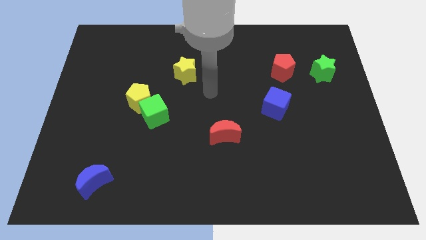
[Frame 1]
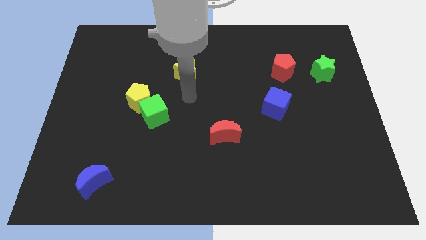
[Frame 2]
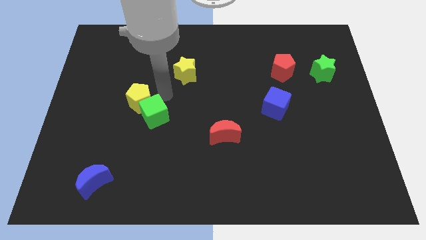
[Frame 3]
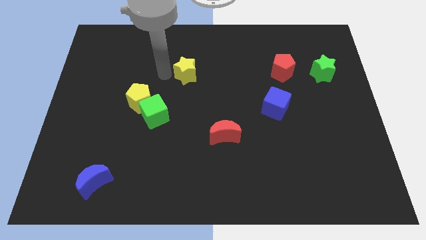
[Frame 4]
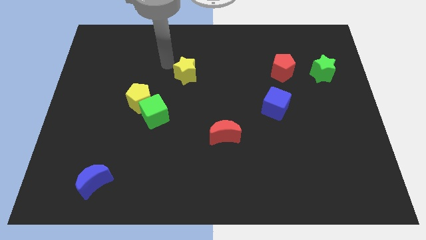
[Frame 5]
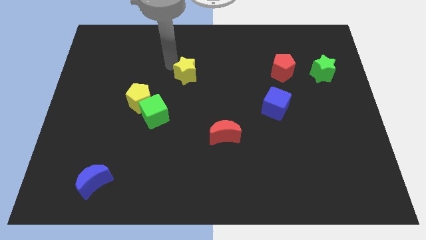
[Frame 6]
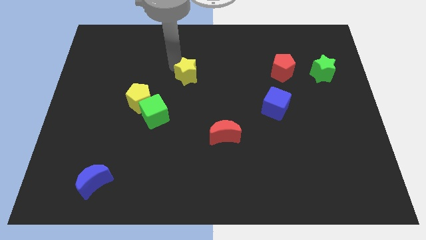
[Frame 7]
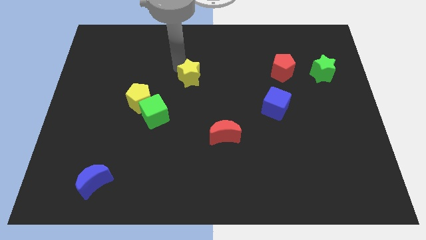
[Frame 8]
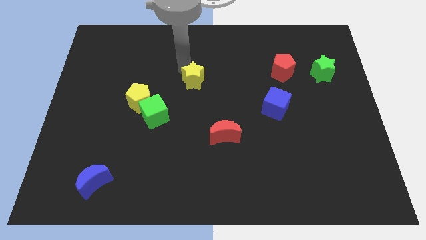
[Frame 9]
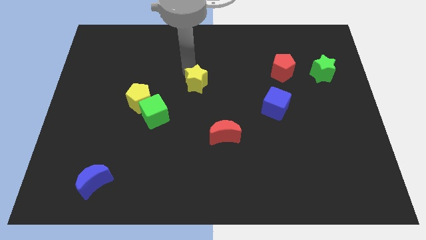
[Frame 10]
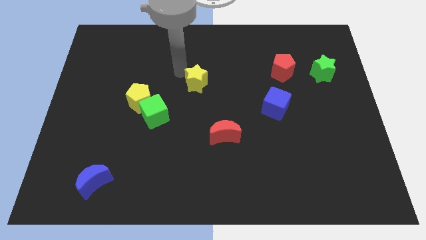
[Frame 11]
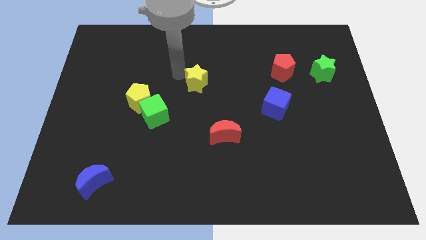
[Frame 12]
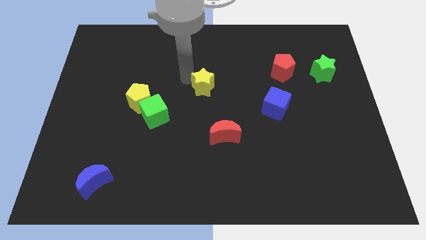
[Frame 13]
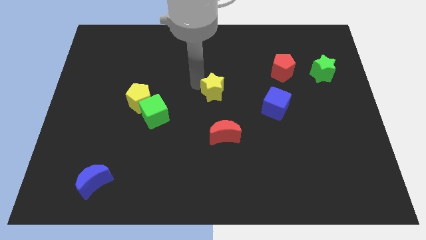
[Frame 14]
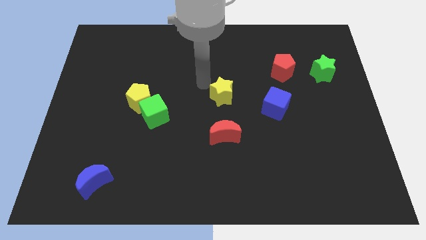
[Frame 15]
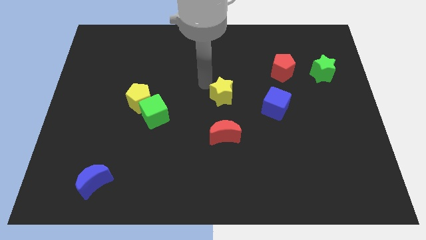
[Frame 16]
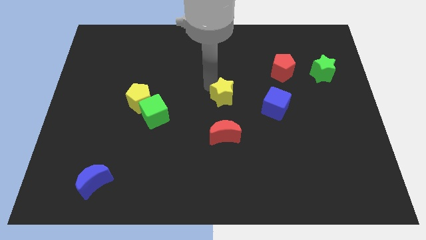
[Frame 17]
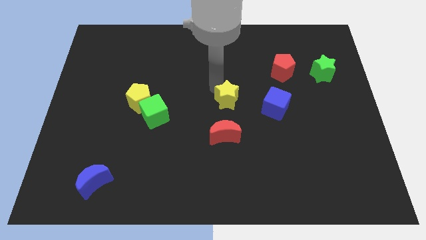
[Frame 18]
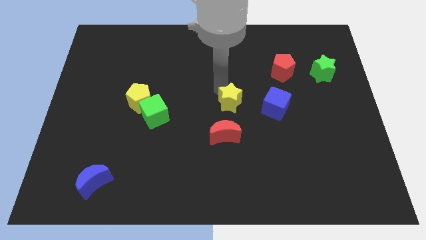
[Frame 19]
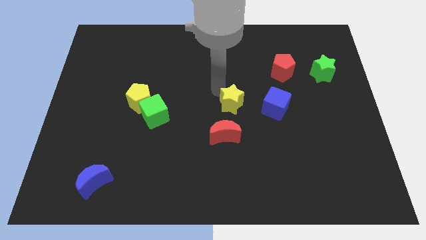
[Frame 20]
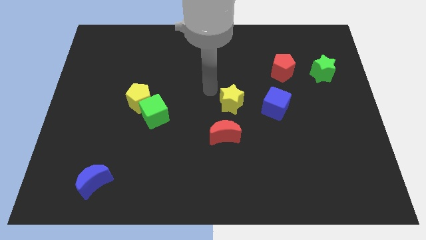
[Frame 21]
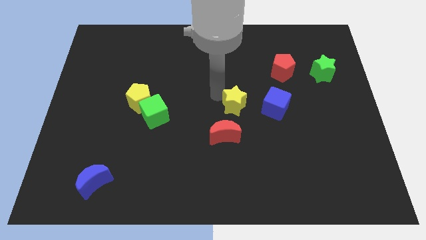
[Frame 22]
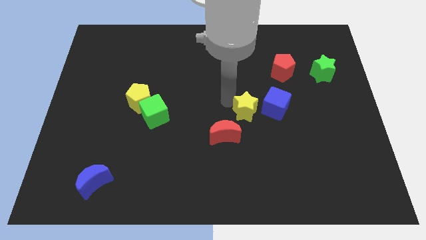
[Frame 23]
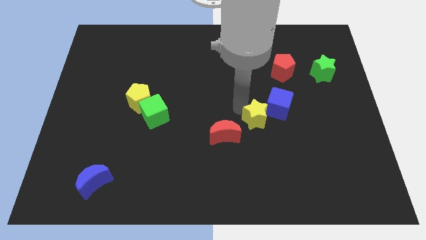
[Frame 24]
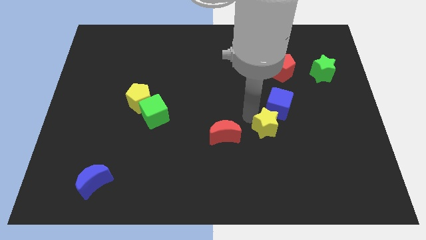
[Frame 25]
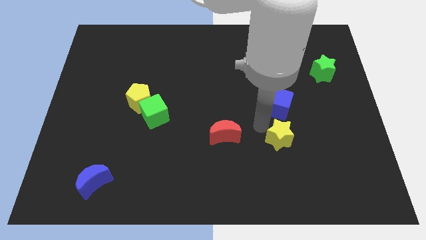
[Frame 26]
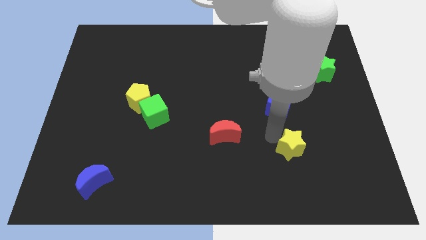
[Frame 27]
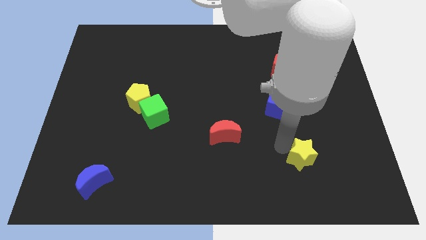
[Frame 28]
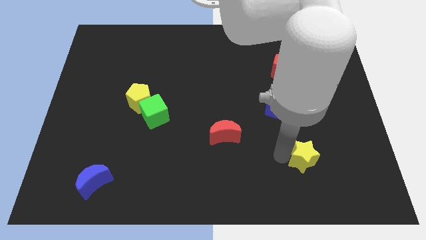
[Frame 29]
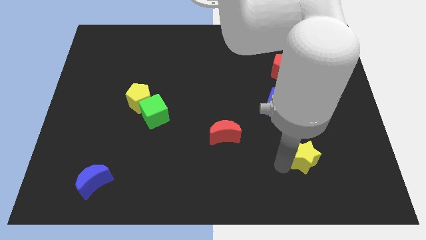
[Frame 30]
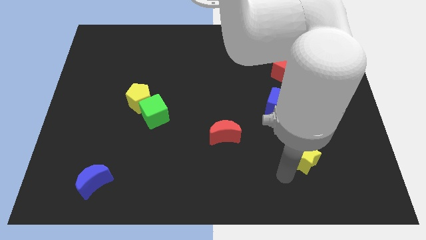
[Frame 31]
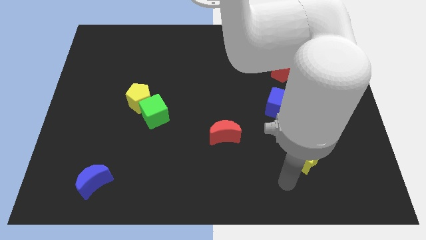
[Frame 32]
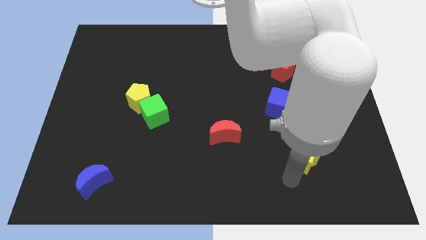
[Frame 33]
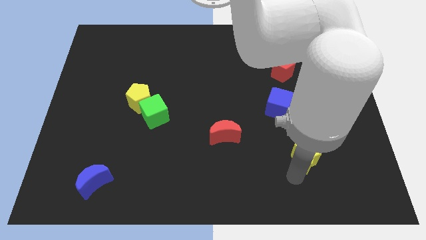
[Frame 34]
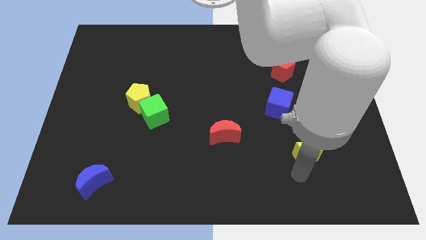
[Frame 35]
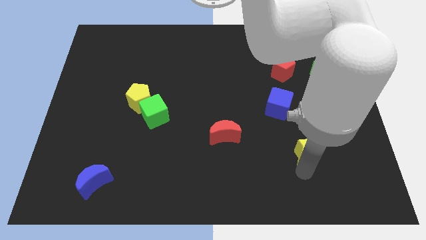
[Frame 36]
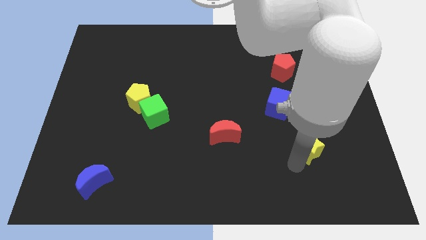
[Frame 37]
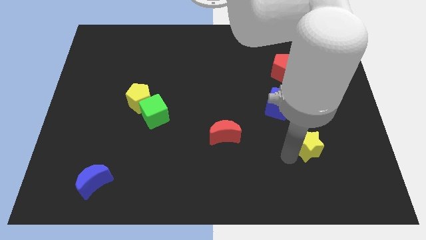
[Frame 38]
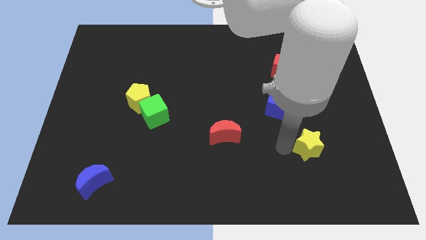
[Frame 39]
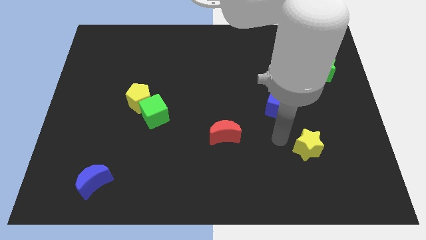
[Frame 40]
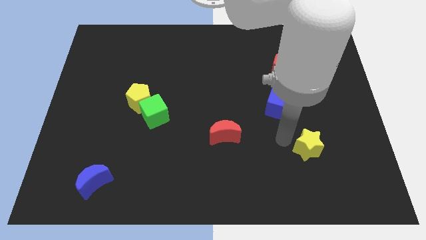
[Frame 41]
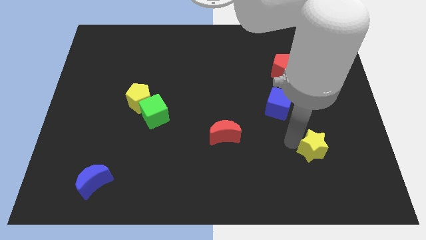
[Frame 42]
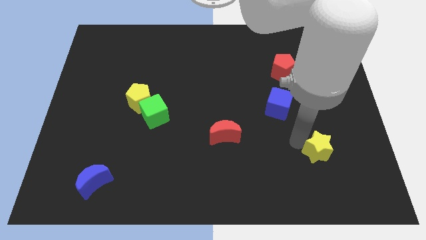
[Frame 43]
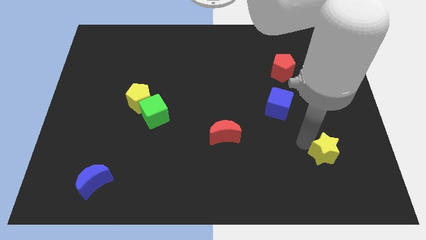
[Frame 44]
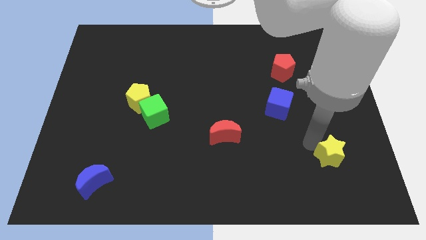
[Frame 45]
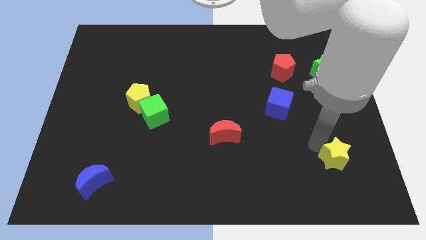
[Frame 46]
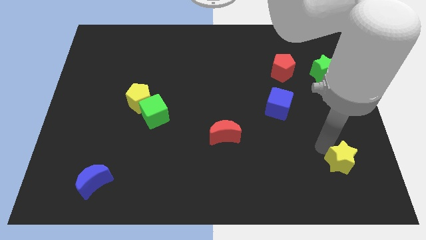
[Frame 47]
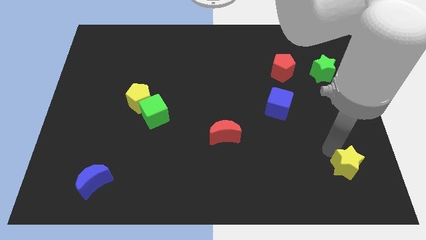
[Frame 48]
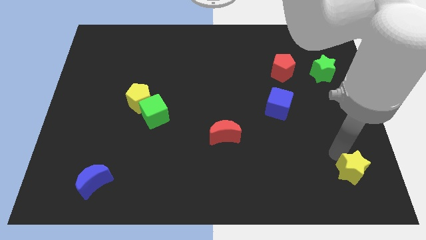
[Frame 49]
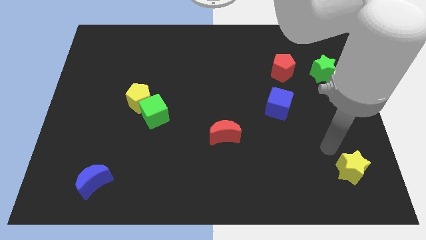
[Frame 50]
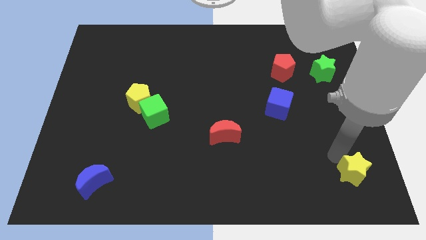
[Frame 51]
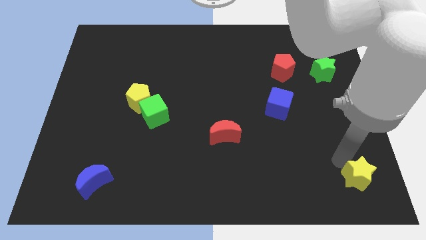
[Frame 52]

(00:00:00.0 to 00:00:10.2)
put the yellow star to the bottom right corner
